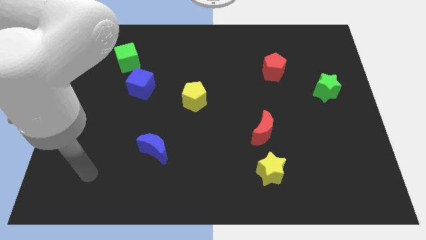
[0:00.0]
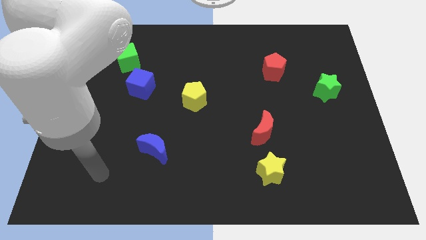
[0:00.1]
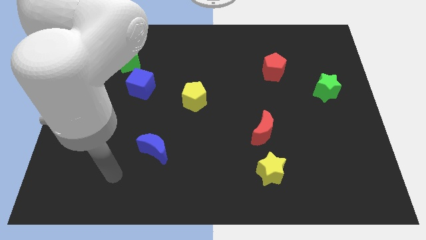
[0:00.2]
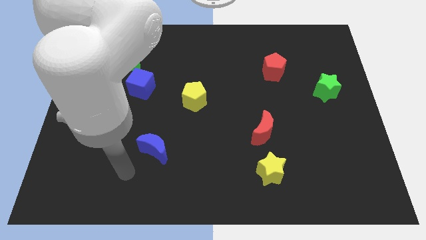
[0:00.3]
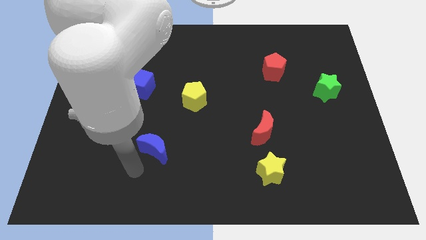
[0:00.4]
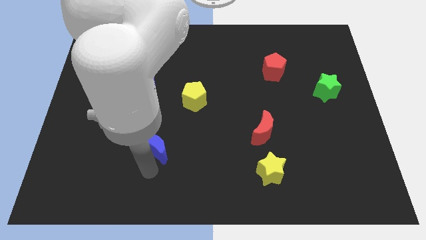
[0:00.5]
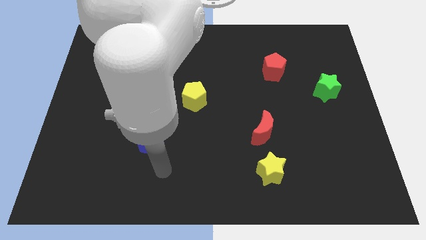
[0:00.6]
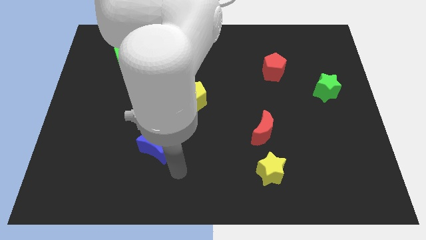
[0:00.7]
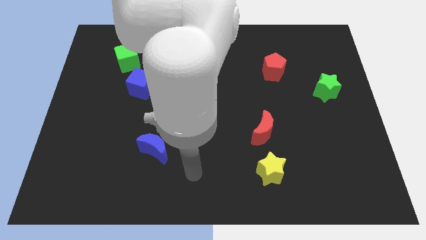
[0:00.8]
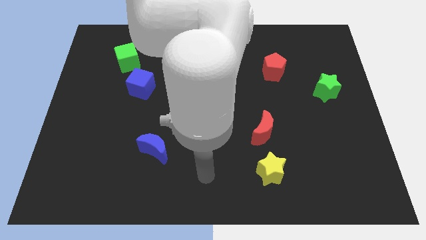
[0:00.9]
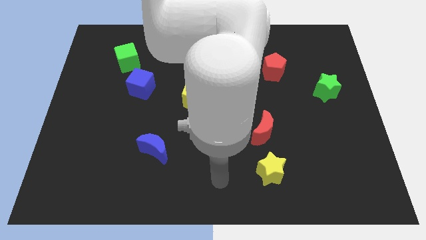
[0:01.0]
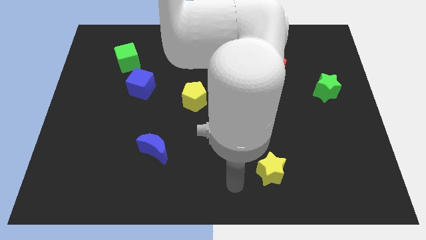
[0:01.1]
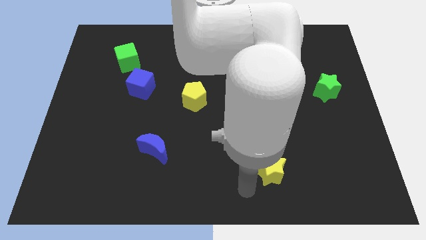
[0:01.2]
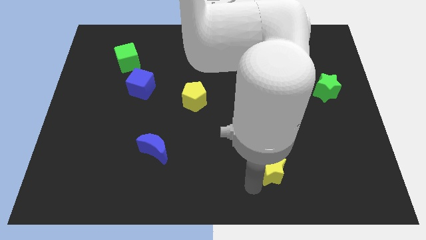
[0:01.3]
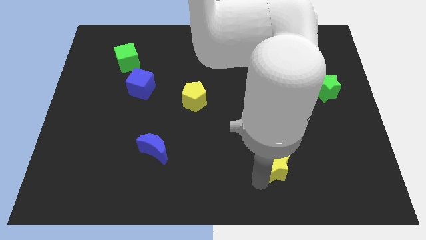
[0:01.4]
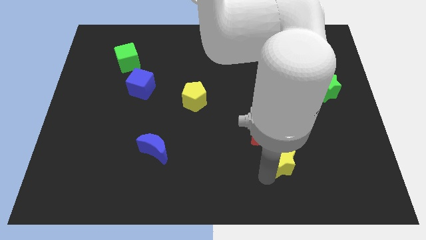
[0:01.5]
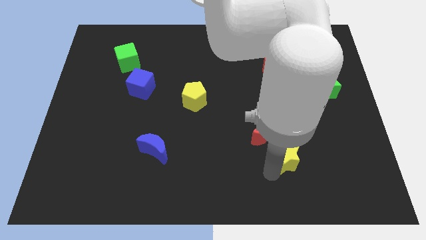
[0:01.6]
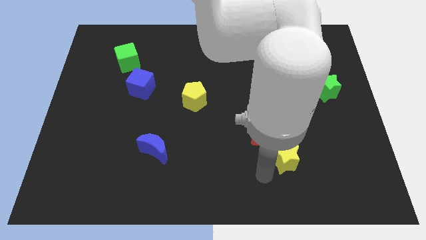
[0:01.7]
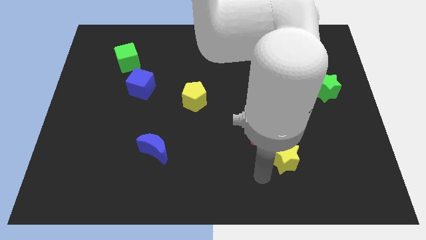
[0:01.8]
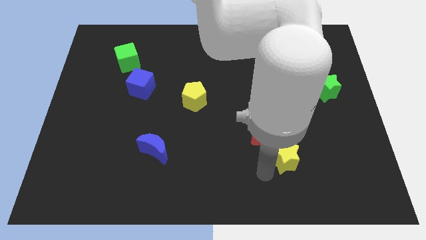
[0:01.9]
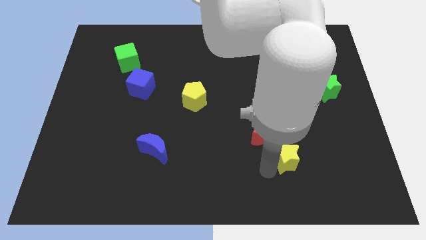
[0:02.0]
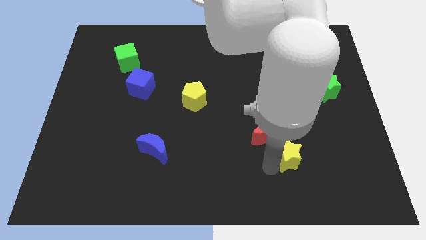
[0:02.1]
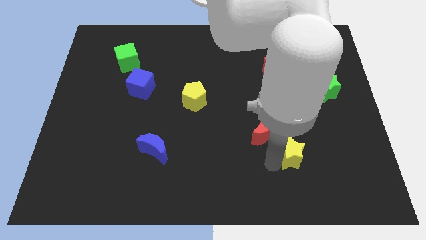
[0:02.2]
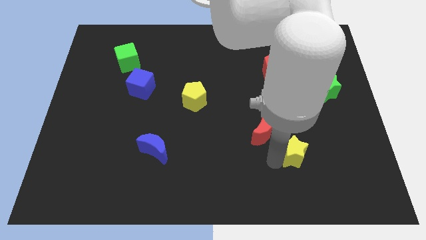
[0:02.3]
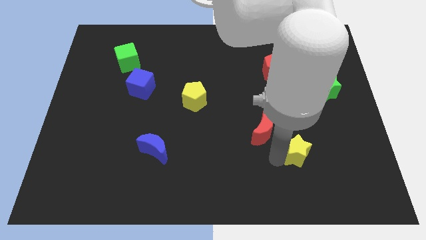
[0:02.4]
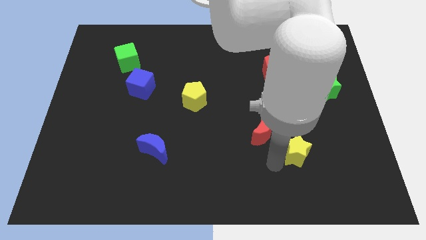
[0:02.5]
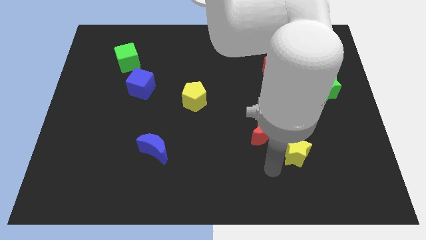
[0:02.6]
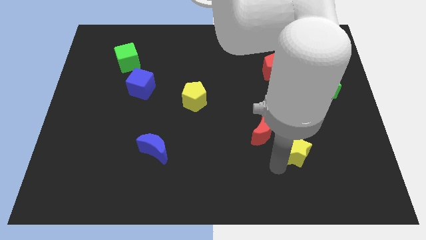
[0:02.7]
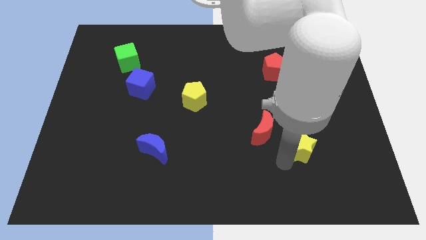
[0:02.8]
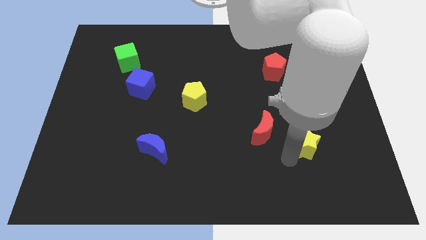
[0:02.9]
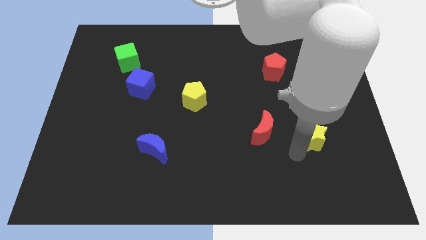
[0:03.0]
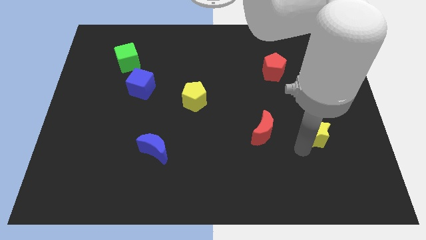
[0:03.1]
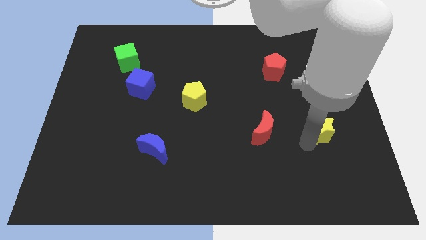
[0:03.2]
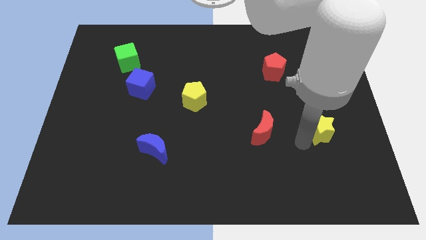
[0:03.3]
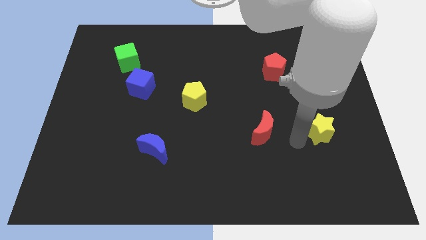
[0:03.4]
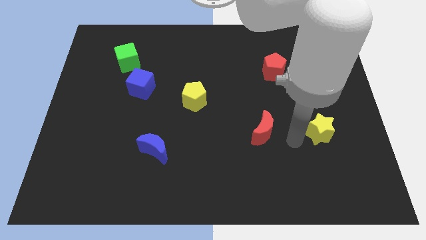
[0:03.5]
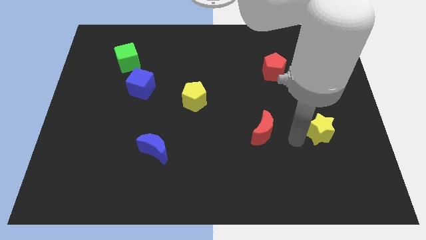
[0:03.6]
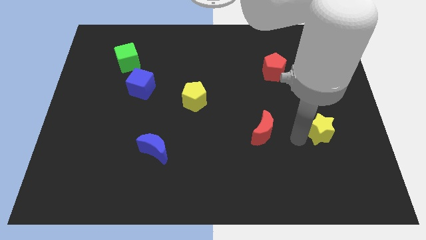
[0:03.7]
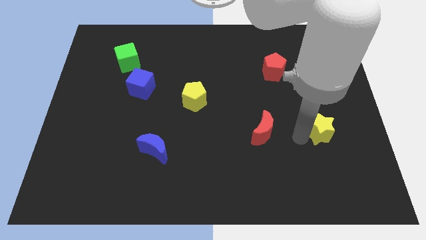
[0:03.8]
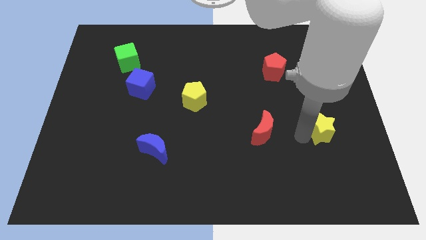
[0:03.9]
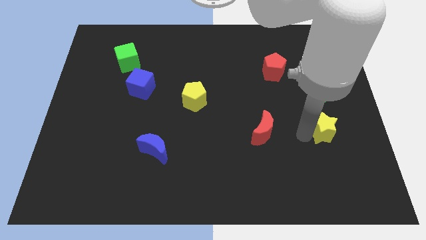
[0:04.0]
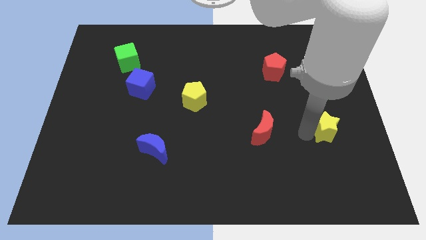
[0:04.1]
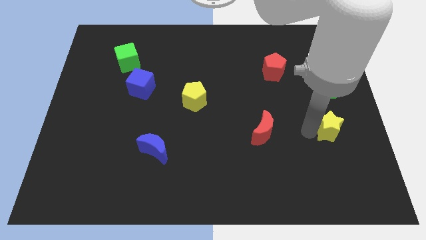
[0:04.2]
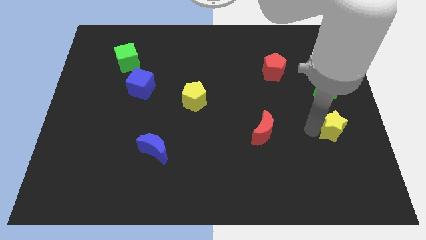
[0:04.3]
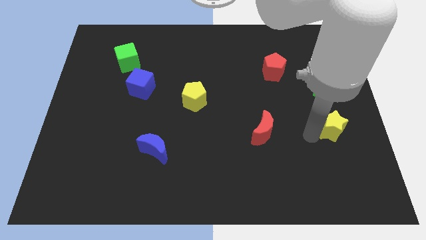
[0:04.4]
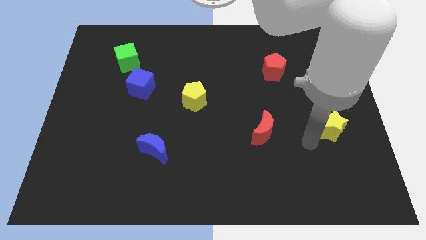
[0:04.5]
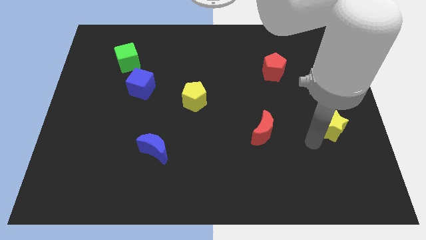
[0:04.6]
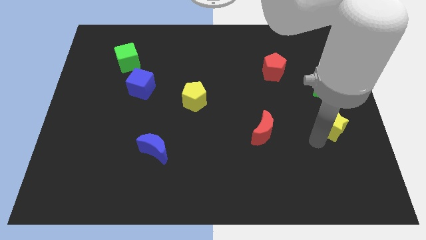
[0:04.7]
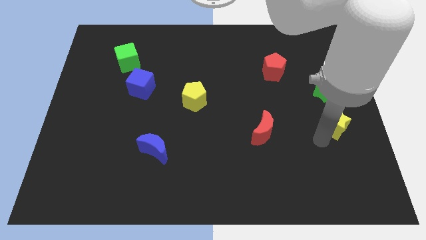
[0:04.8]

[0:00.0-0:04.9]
slide the yellow star to the right side of the board

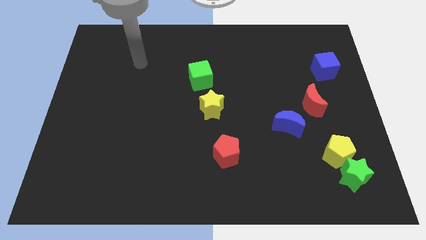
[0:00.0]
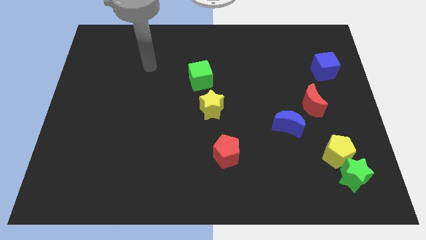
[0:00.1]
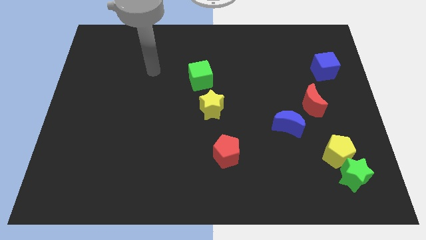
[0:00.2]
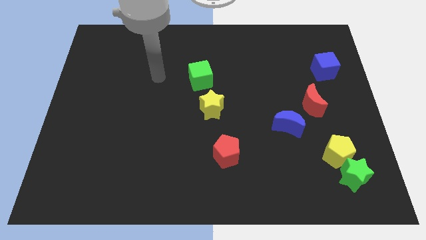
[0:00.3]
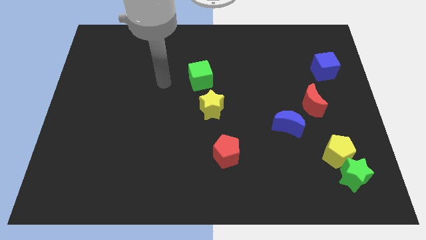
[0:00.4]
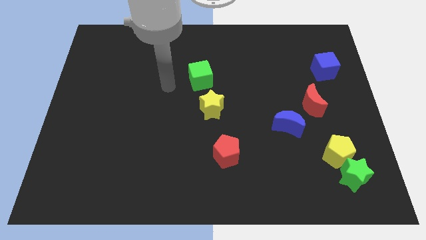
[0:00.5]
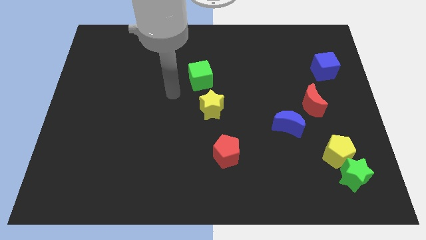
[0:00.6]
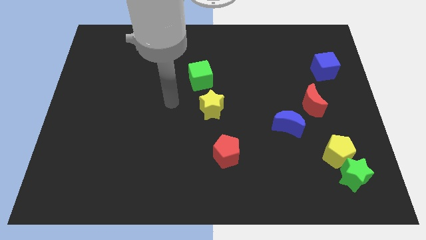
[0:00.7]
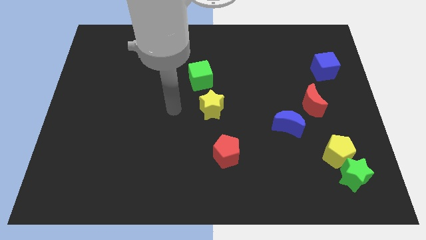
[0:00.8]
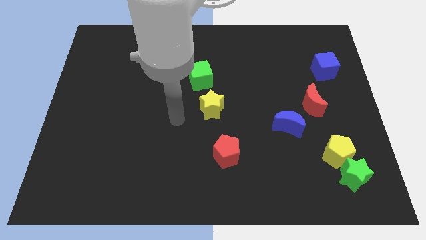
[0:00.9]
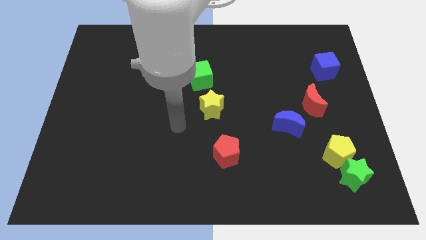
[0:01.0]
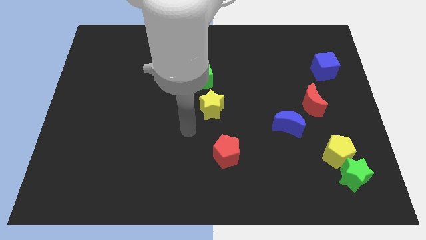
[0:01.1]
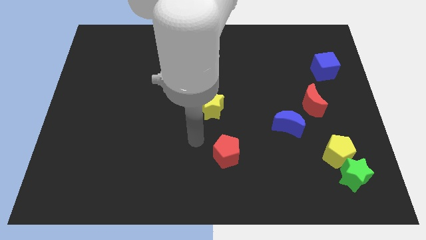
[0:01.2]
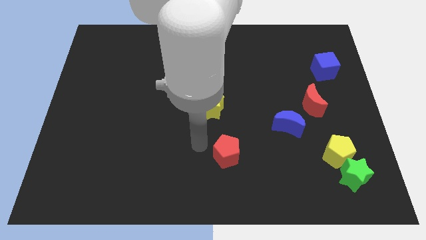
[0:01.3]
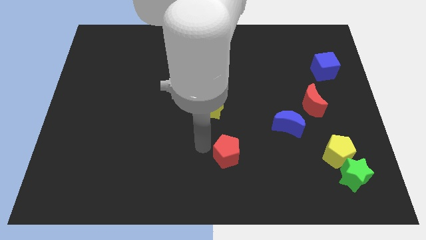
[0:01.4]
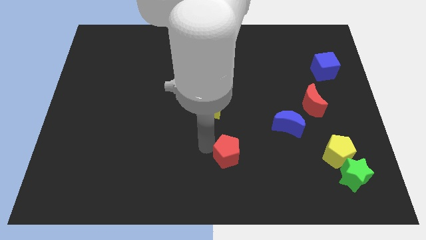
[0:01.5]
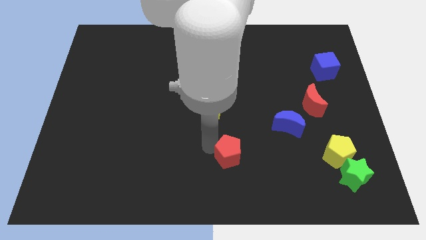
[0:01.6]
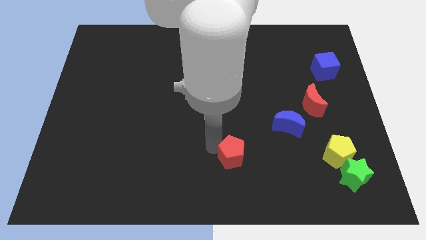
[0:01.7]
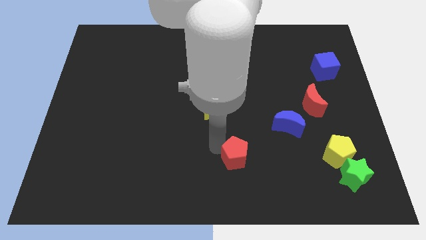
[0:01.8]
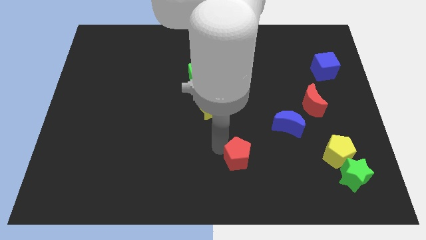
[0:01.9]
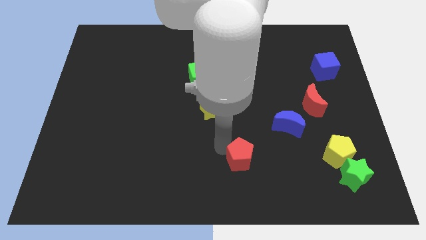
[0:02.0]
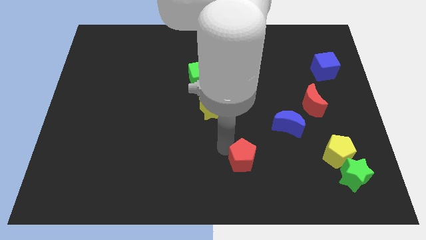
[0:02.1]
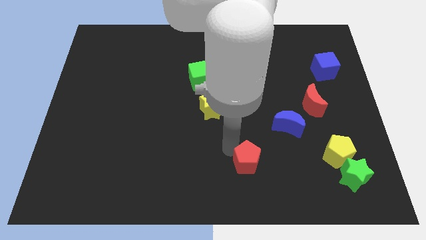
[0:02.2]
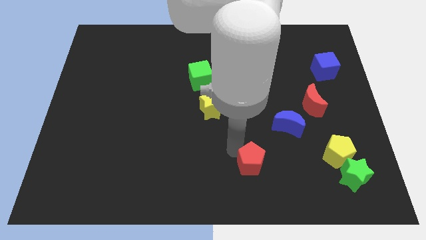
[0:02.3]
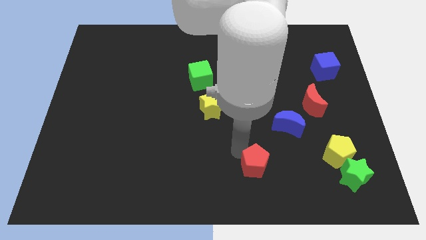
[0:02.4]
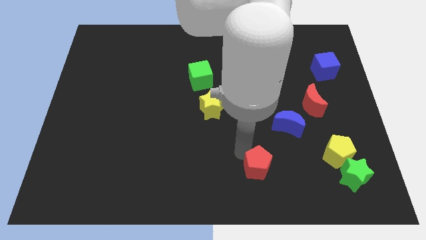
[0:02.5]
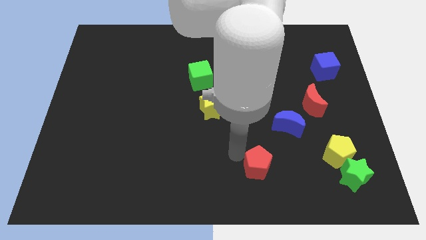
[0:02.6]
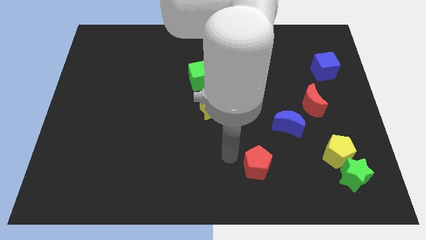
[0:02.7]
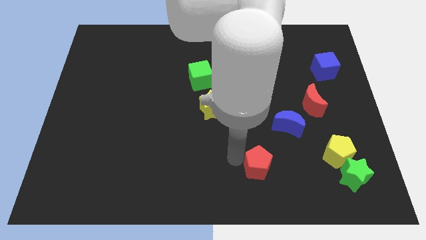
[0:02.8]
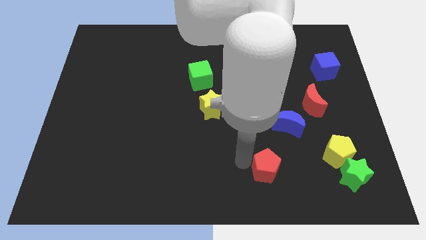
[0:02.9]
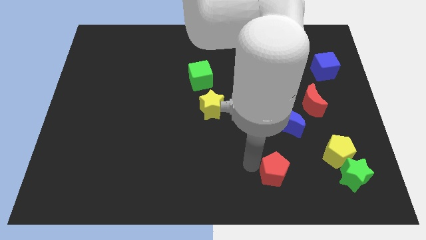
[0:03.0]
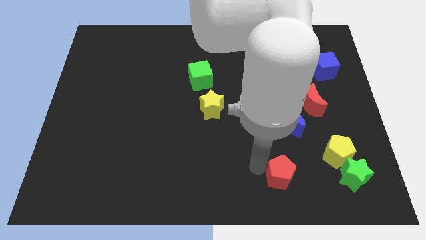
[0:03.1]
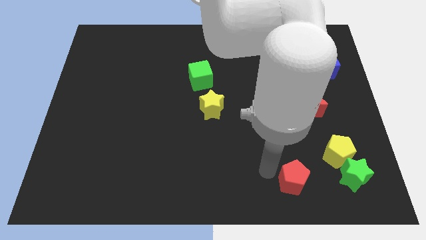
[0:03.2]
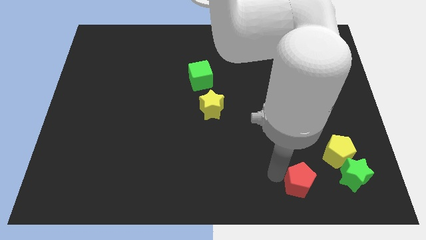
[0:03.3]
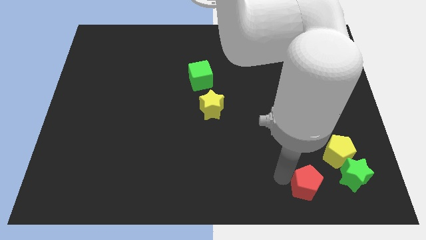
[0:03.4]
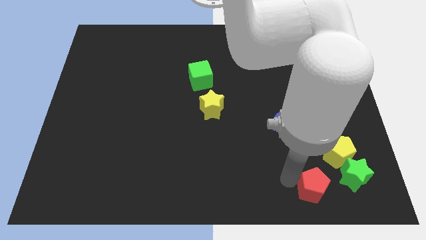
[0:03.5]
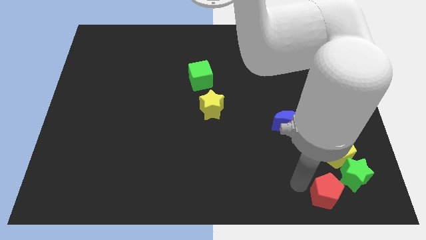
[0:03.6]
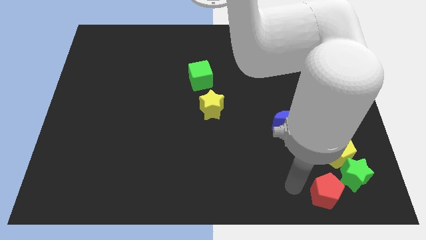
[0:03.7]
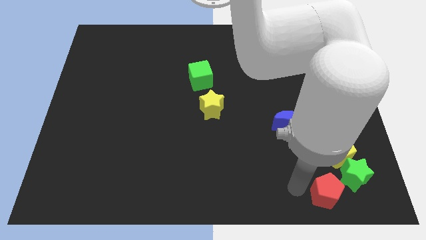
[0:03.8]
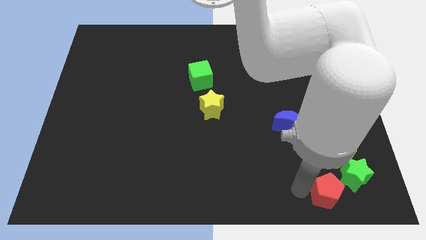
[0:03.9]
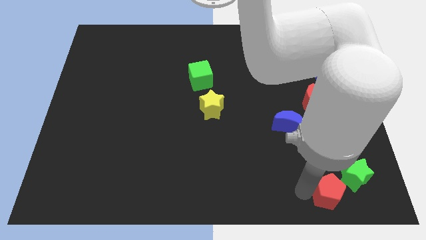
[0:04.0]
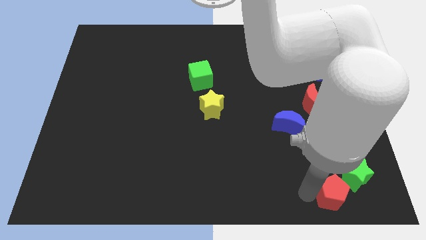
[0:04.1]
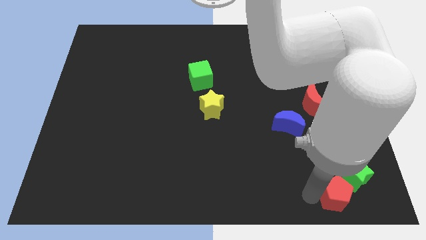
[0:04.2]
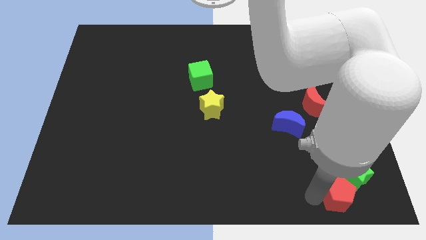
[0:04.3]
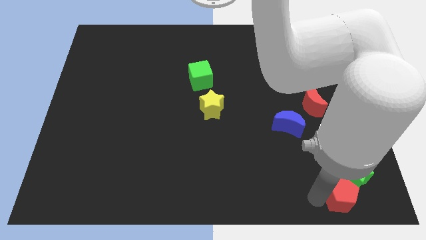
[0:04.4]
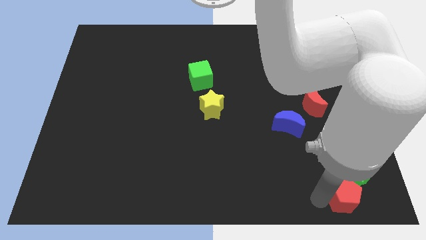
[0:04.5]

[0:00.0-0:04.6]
push the red pentagon to the bottom right of the board
